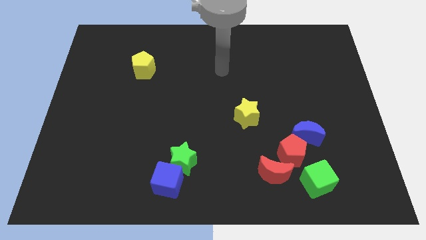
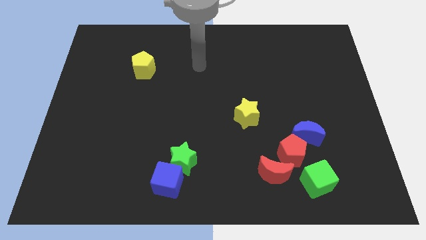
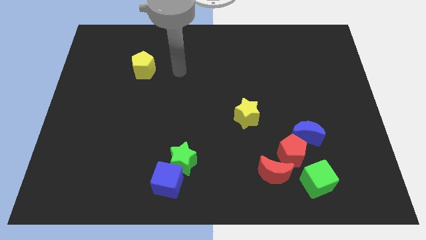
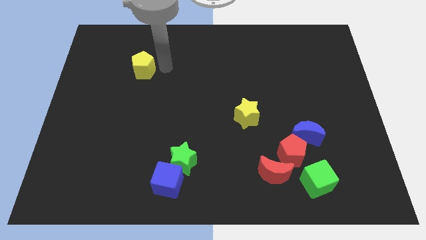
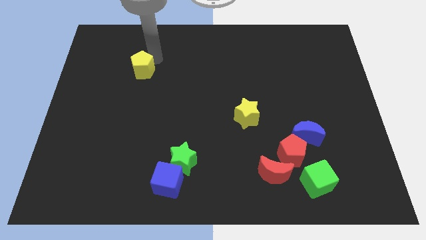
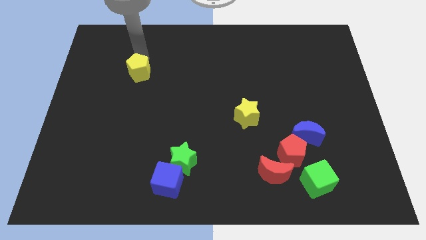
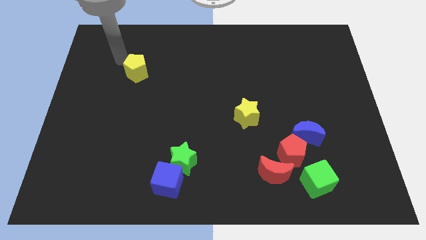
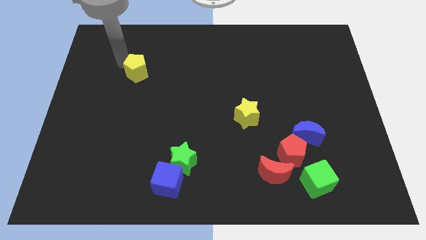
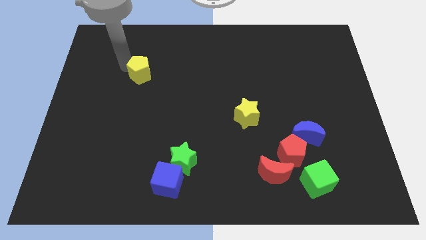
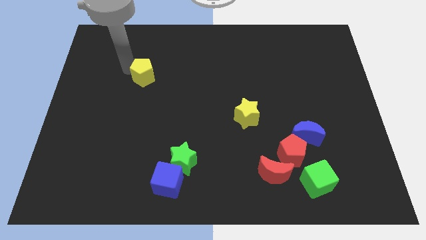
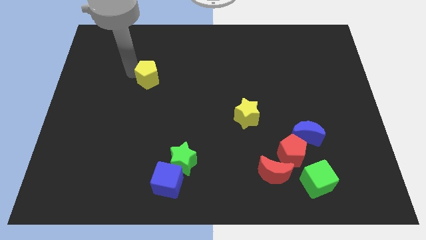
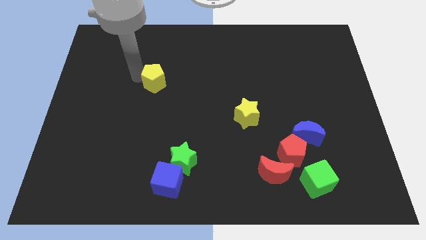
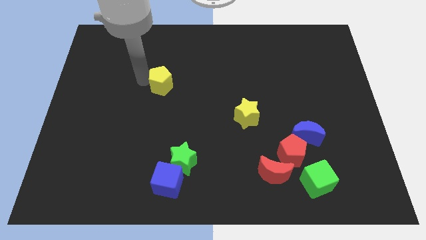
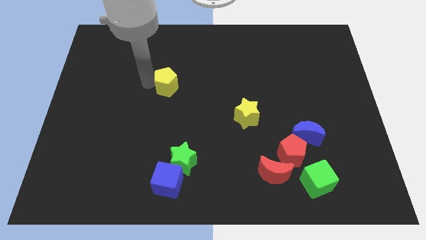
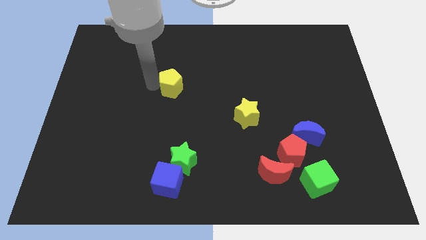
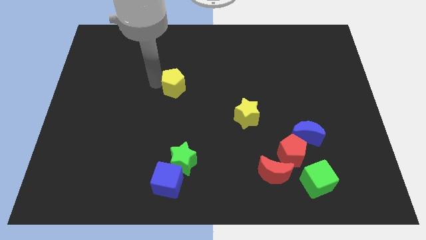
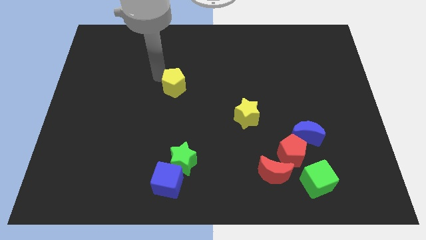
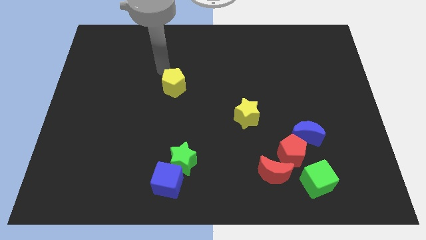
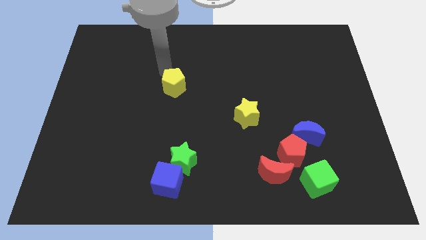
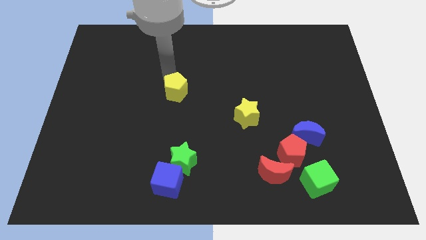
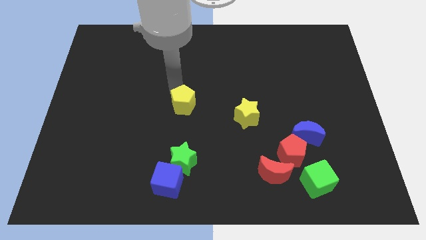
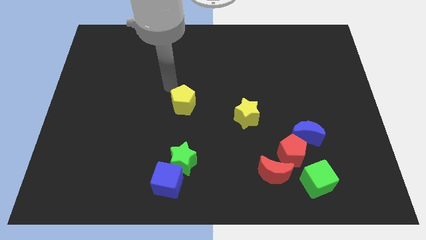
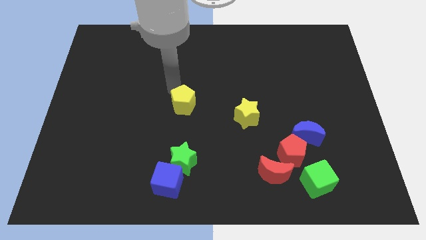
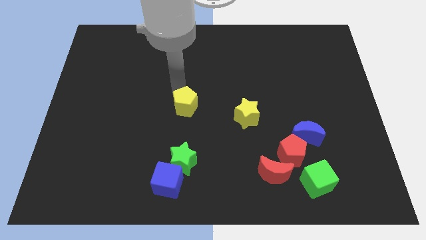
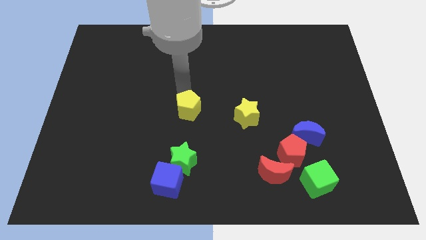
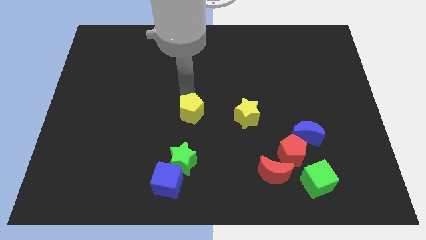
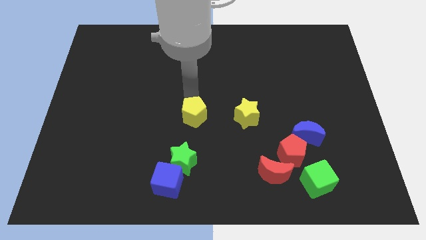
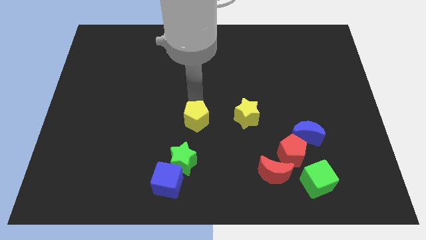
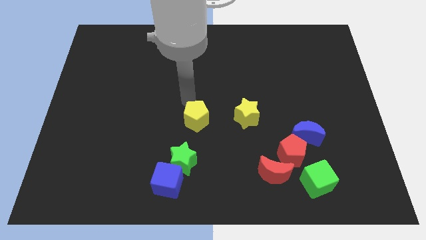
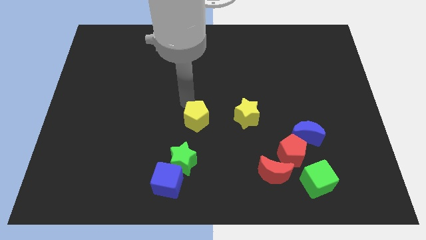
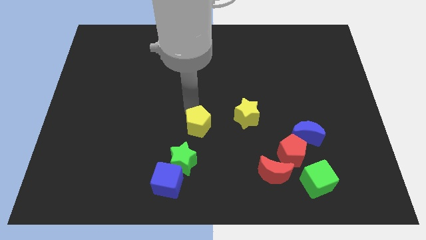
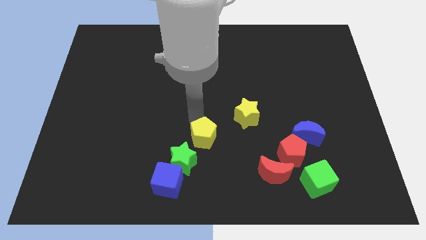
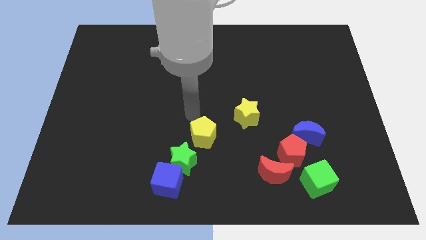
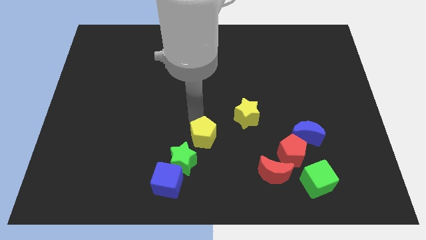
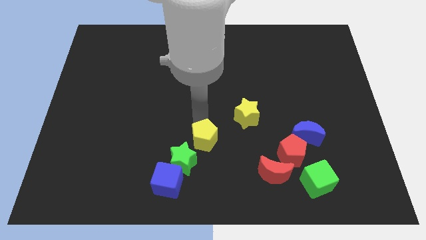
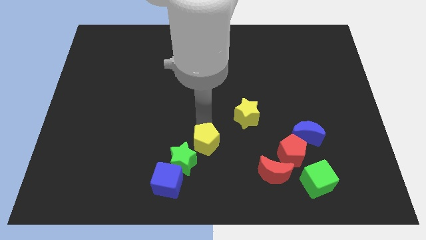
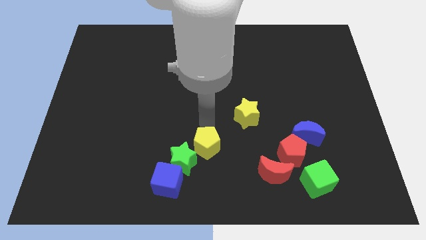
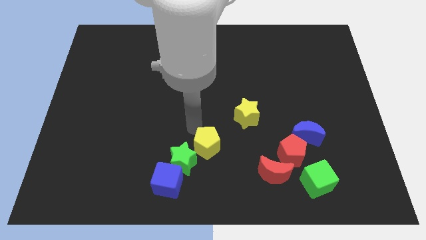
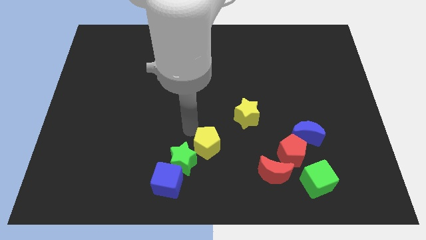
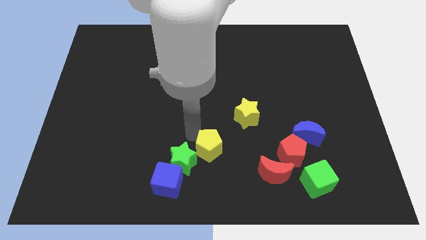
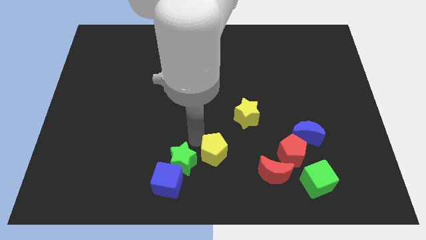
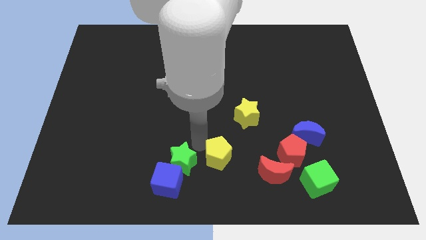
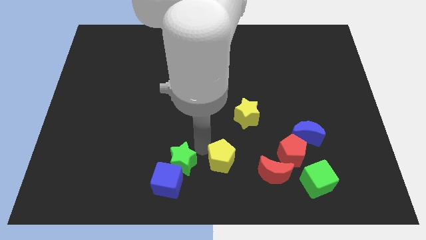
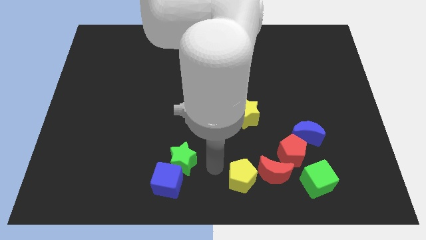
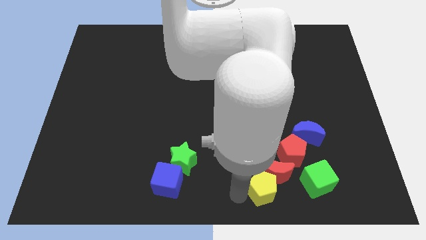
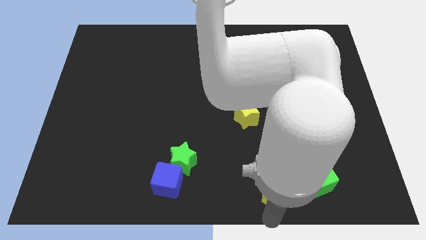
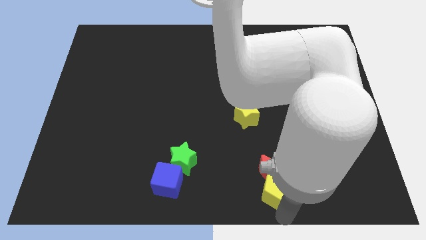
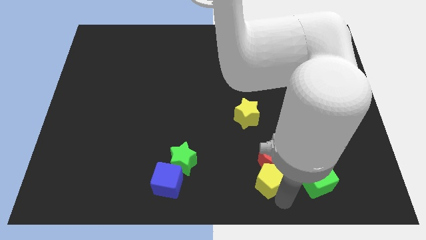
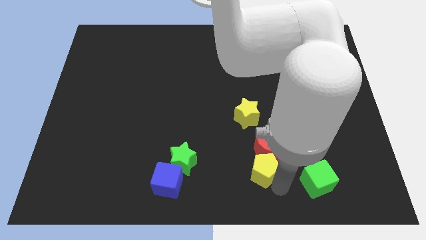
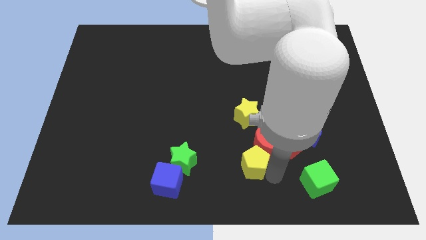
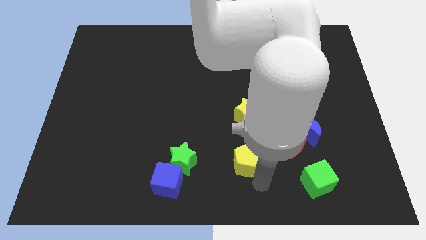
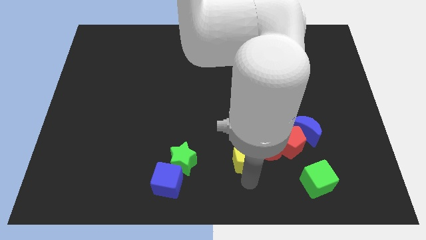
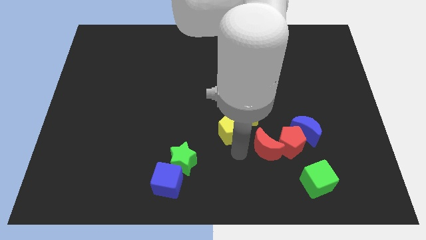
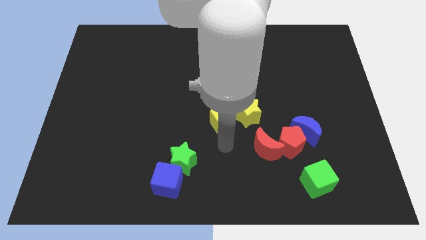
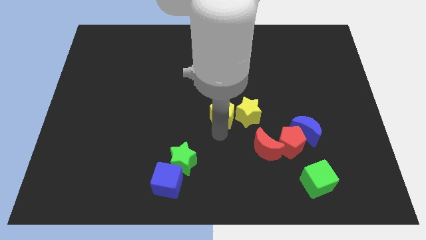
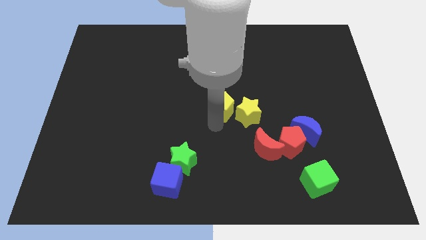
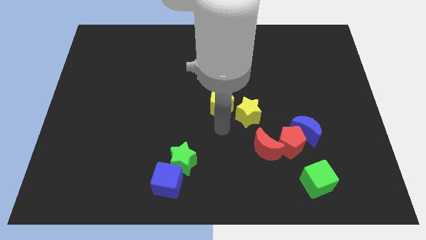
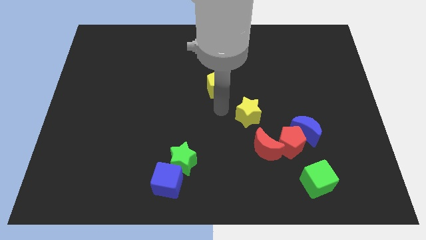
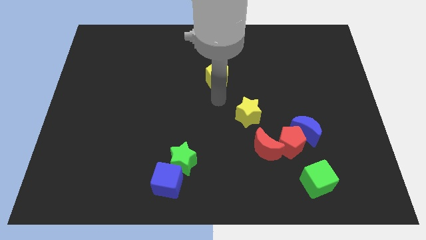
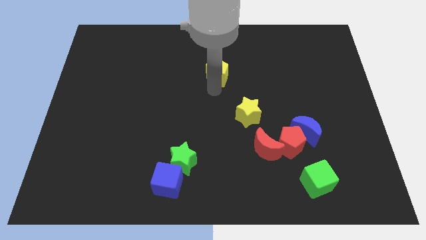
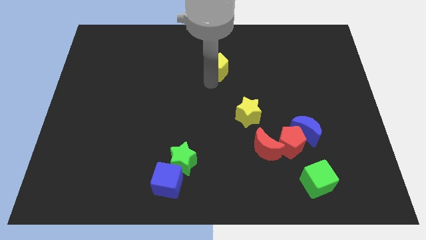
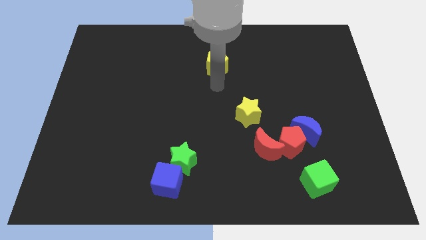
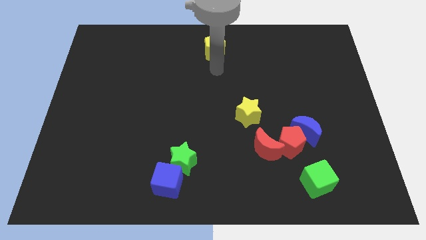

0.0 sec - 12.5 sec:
push the yellow pentagon to the towards your base

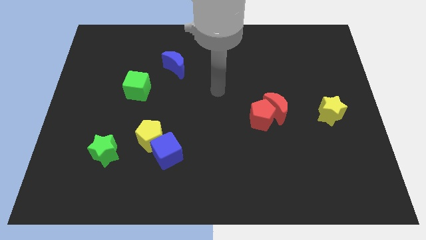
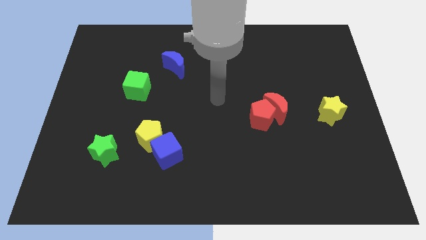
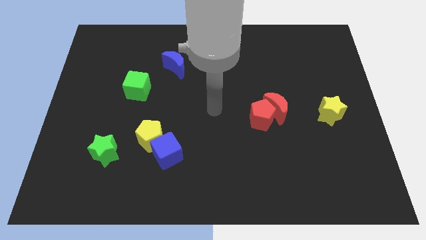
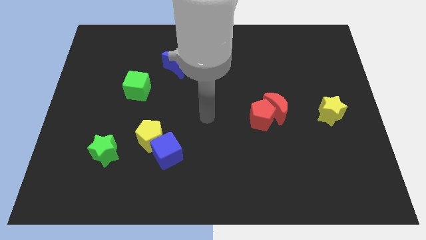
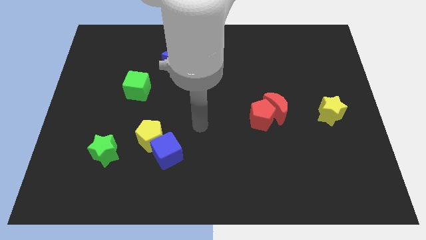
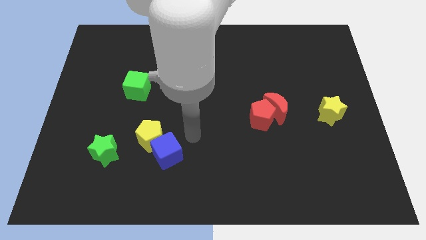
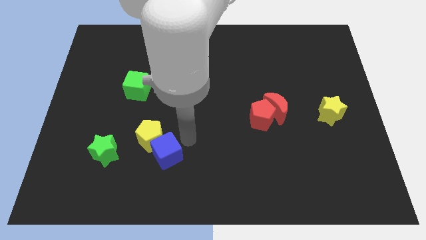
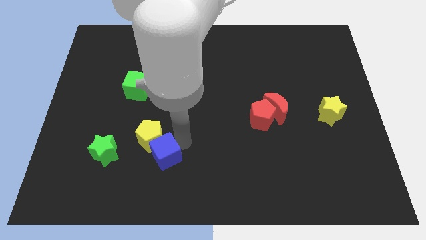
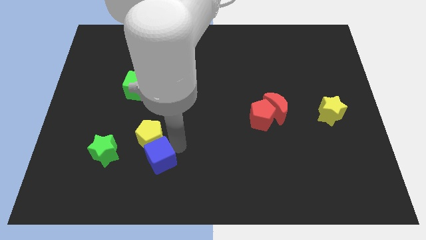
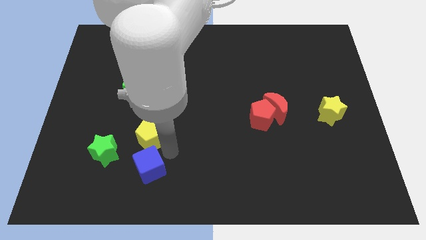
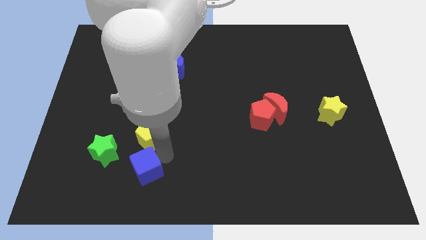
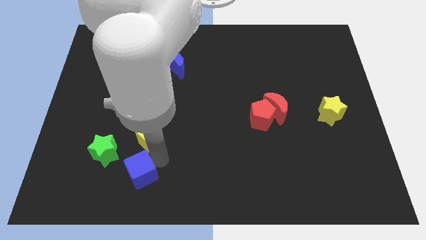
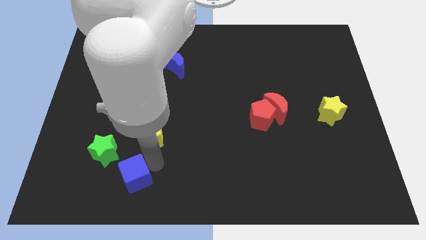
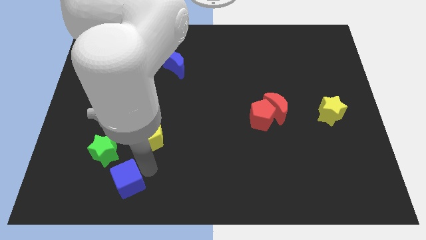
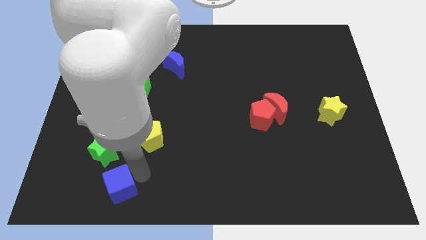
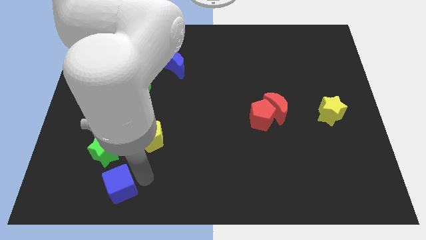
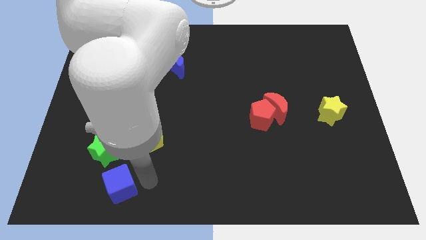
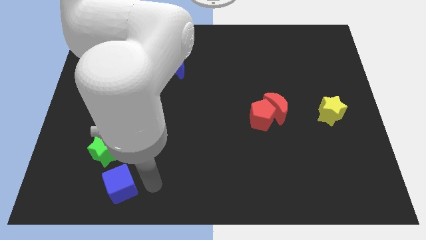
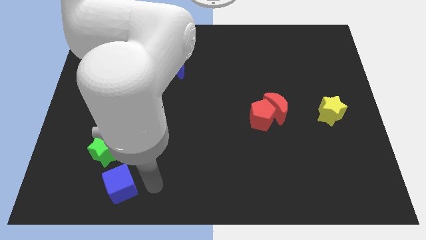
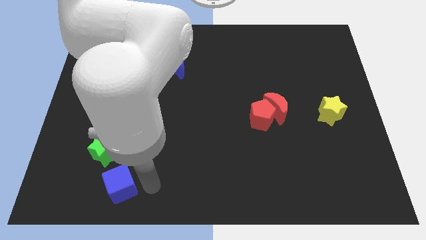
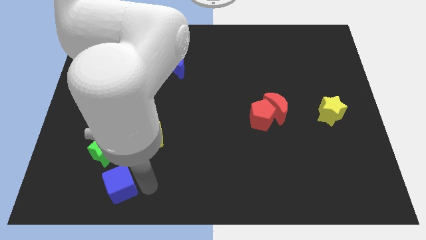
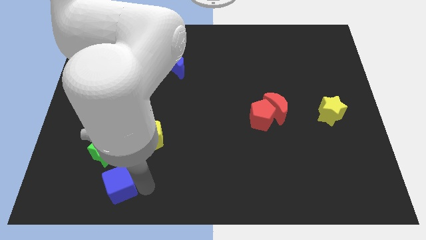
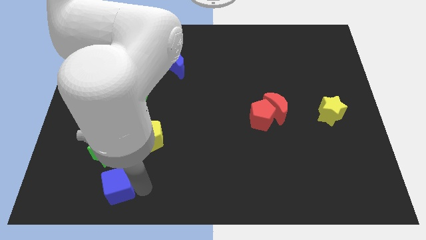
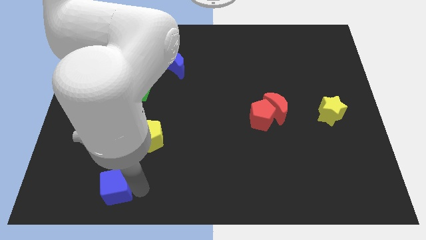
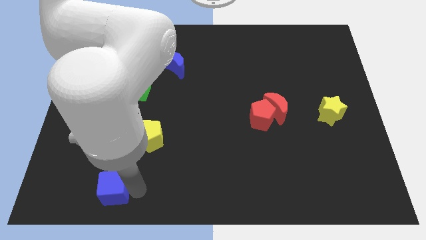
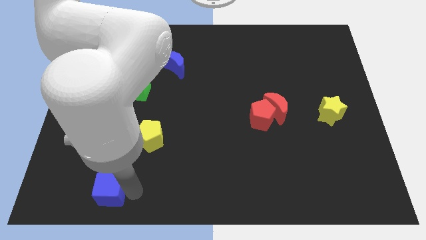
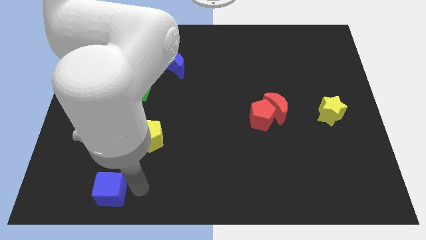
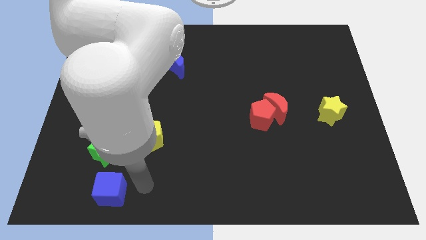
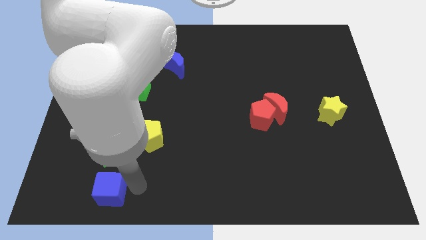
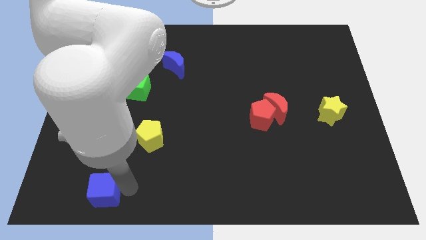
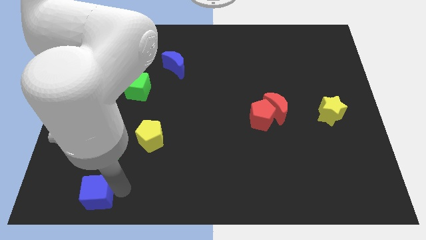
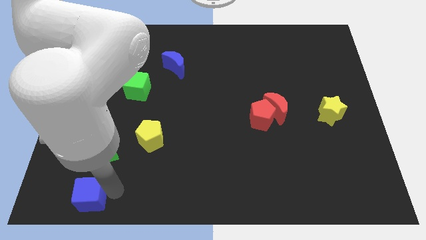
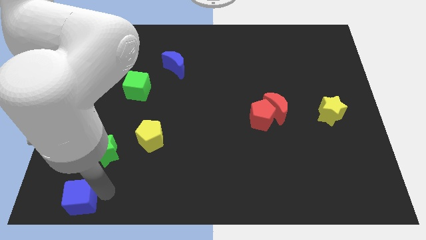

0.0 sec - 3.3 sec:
push the blue cube to the lower left corner
